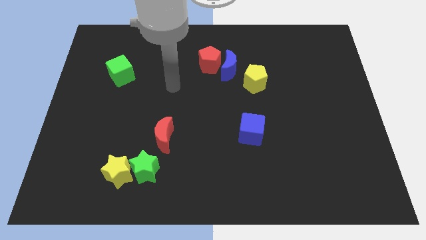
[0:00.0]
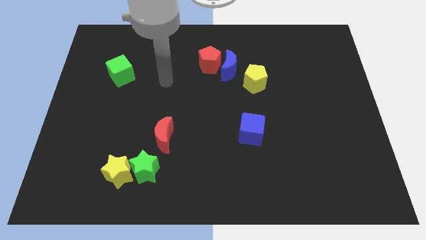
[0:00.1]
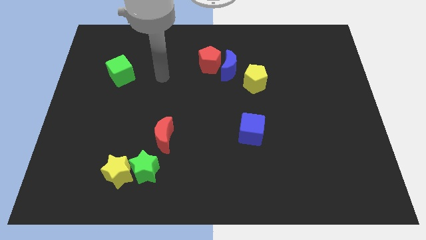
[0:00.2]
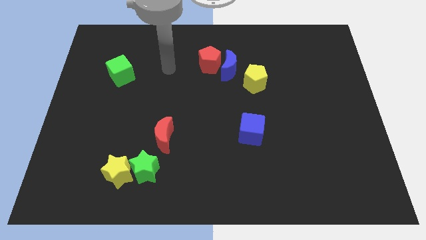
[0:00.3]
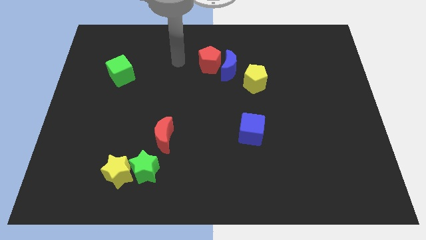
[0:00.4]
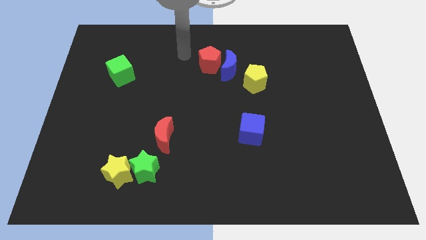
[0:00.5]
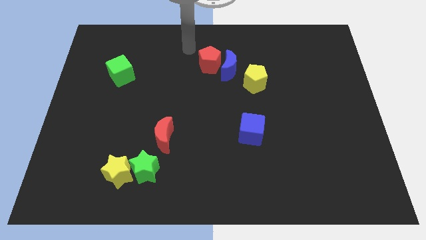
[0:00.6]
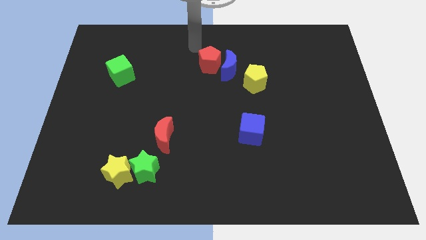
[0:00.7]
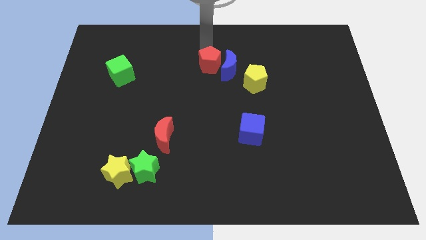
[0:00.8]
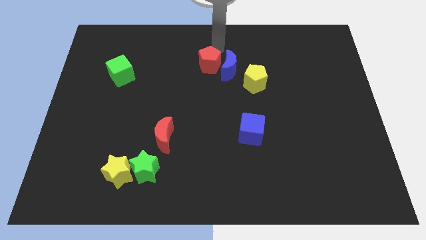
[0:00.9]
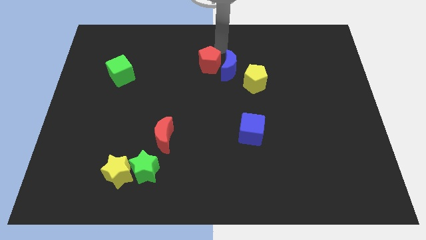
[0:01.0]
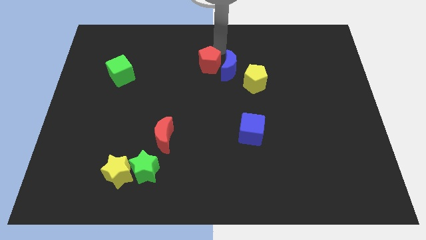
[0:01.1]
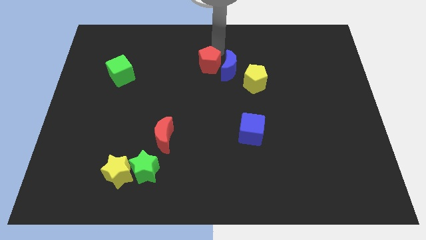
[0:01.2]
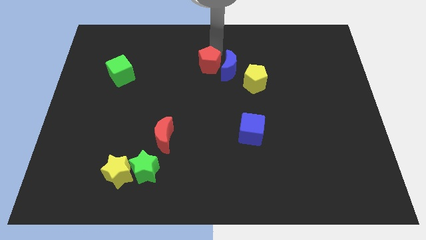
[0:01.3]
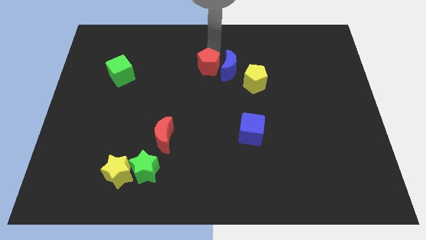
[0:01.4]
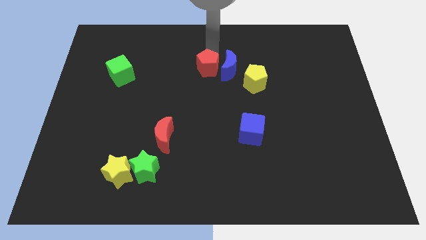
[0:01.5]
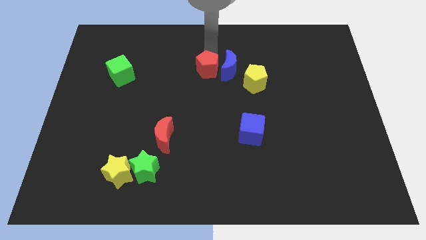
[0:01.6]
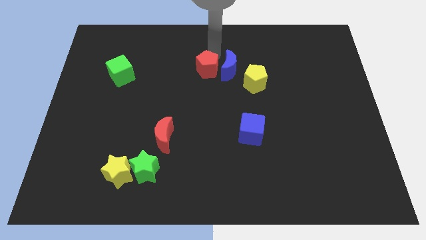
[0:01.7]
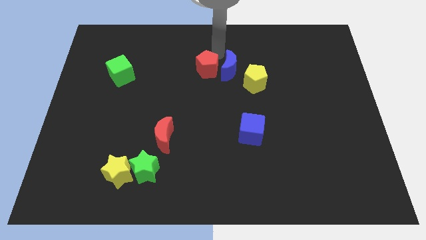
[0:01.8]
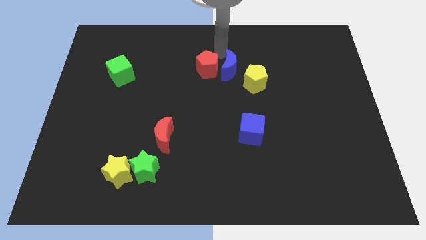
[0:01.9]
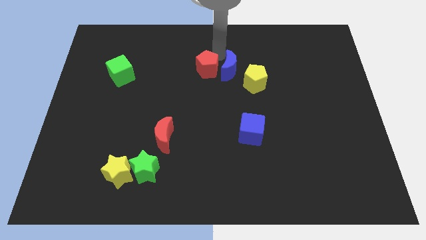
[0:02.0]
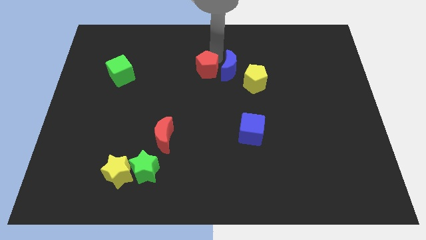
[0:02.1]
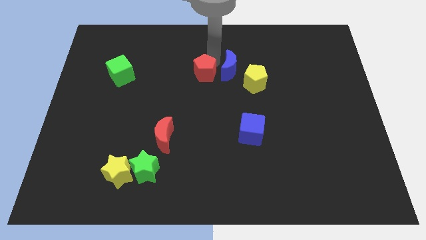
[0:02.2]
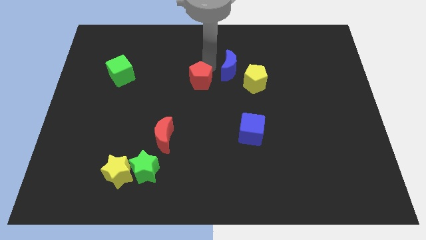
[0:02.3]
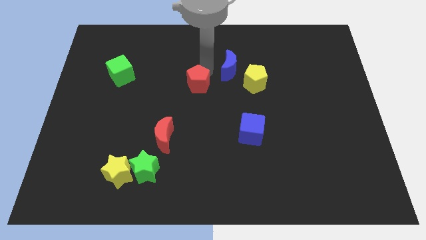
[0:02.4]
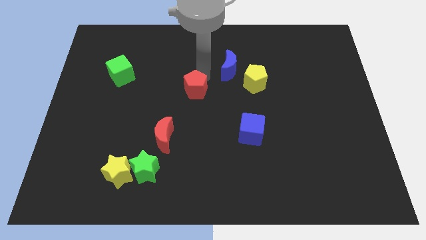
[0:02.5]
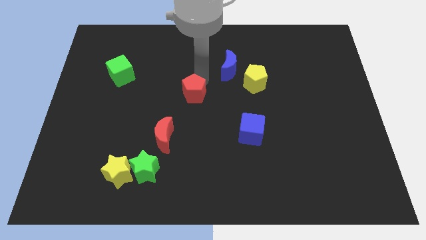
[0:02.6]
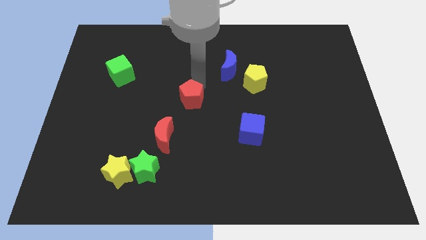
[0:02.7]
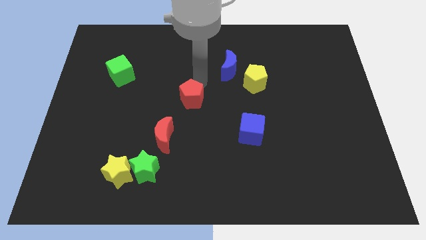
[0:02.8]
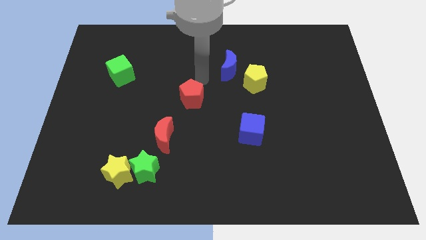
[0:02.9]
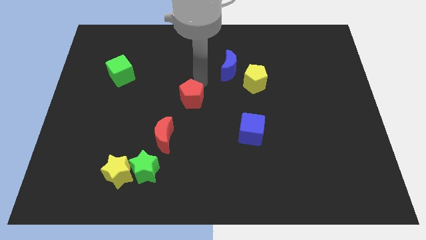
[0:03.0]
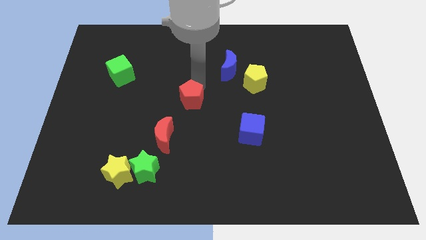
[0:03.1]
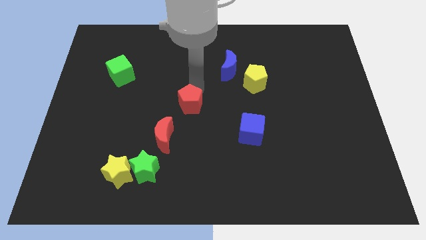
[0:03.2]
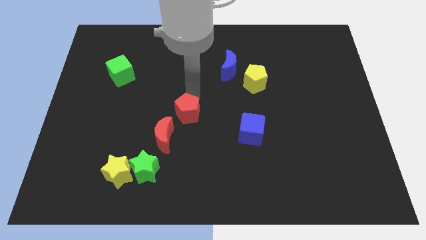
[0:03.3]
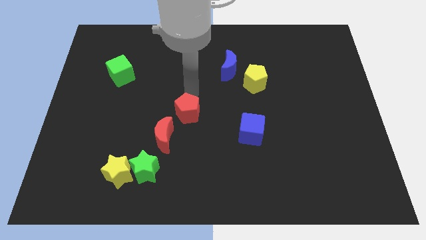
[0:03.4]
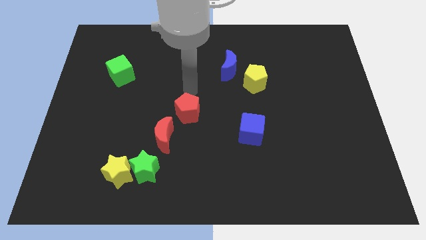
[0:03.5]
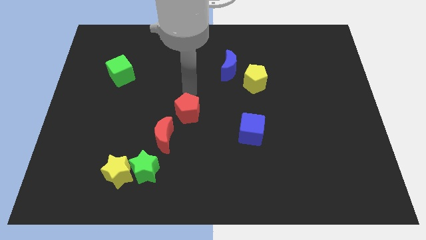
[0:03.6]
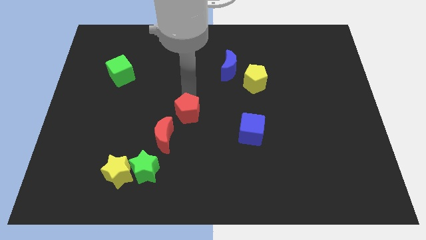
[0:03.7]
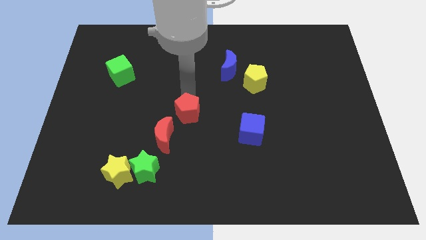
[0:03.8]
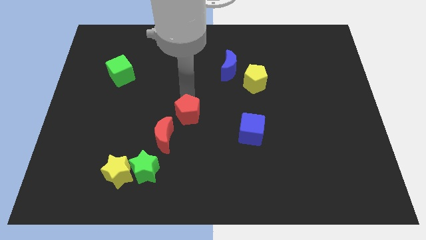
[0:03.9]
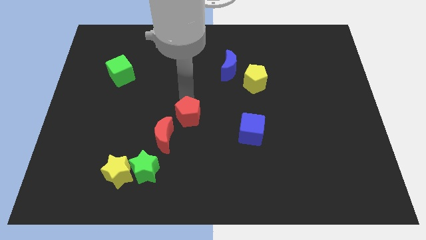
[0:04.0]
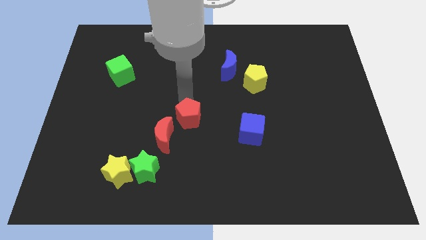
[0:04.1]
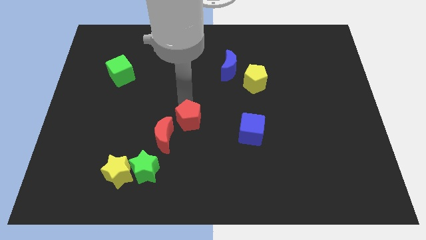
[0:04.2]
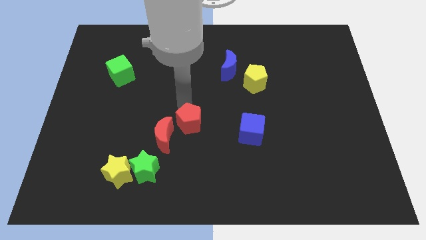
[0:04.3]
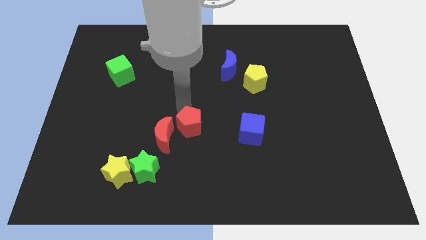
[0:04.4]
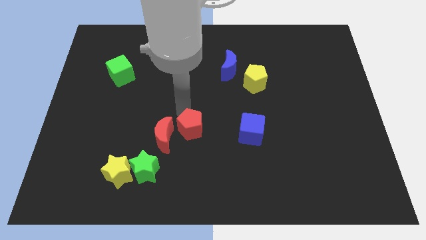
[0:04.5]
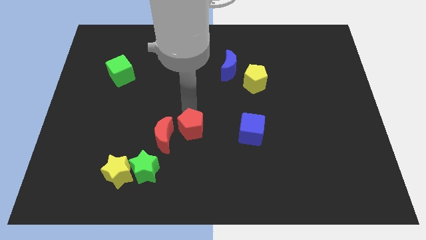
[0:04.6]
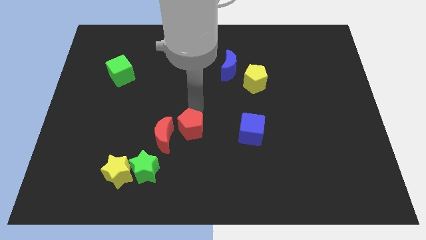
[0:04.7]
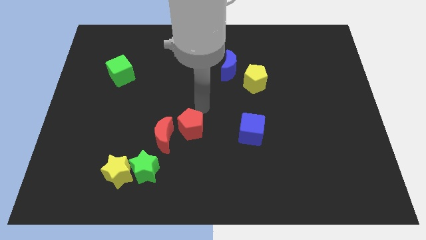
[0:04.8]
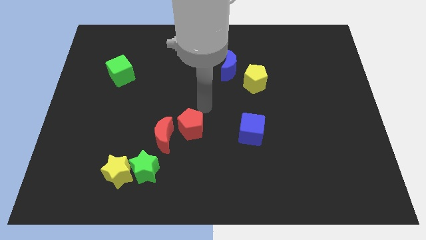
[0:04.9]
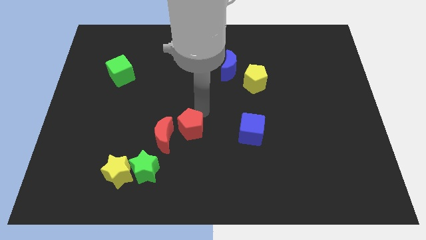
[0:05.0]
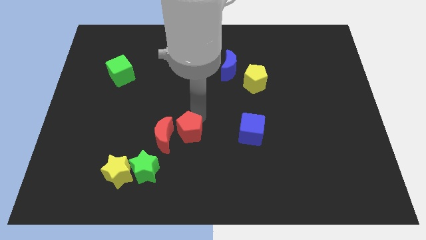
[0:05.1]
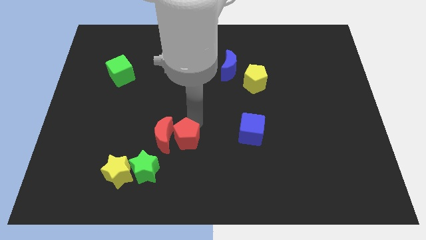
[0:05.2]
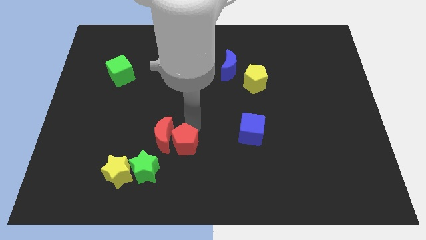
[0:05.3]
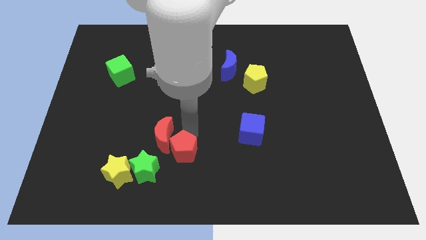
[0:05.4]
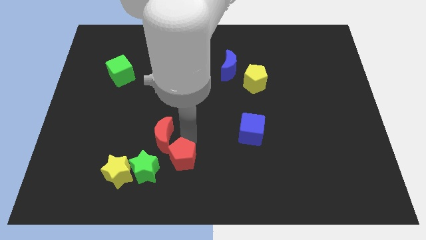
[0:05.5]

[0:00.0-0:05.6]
slide the red pentagon to the bottom of the red moon
